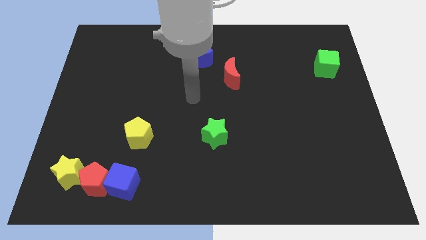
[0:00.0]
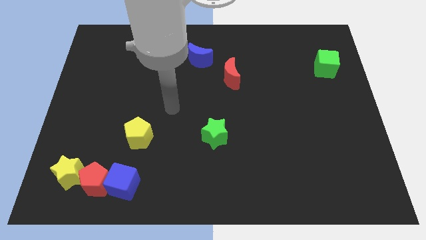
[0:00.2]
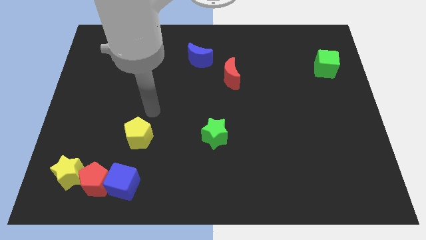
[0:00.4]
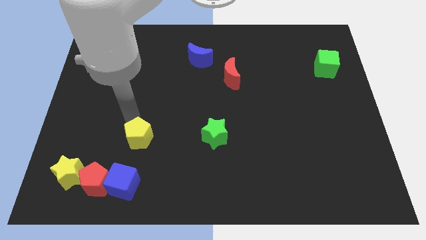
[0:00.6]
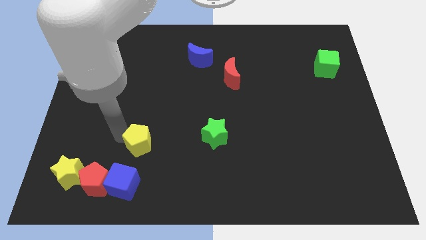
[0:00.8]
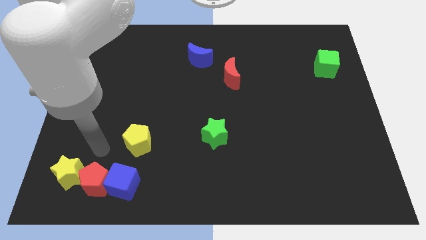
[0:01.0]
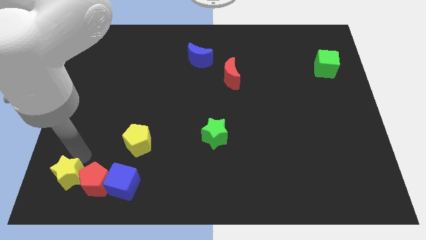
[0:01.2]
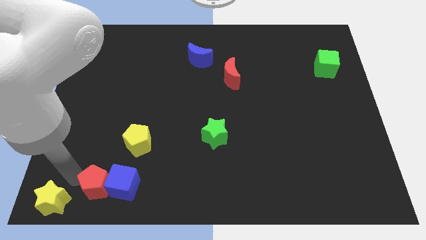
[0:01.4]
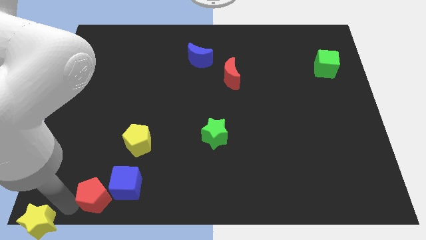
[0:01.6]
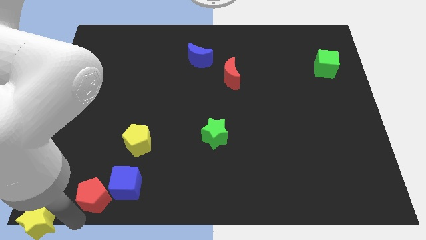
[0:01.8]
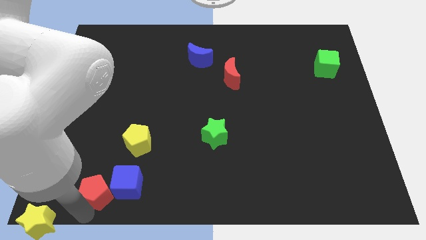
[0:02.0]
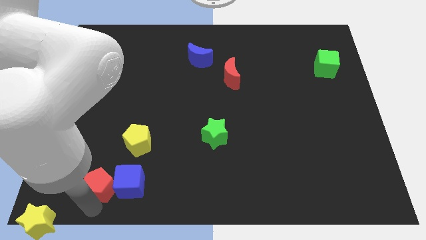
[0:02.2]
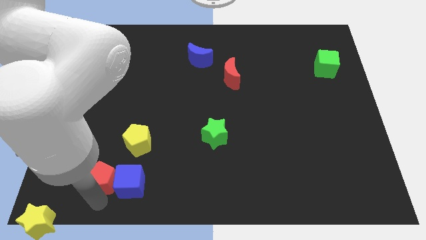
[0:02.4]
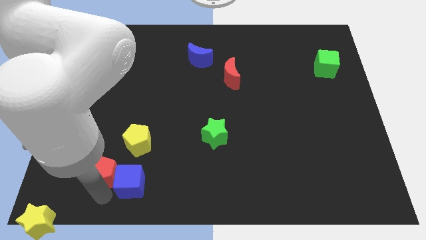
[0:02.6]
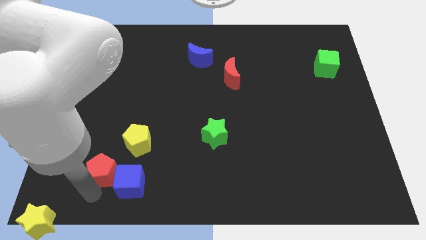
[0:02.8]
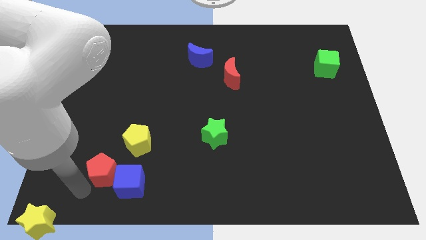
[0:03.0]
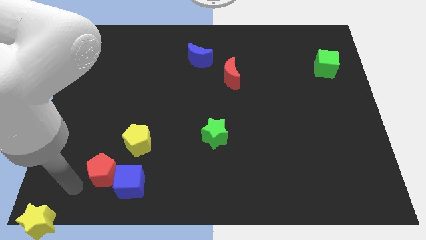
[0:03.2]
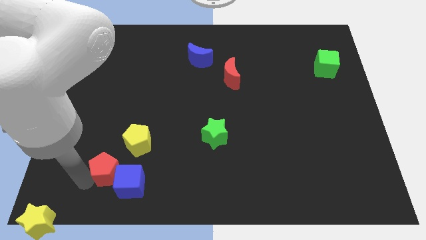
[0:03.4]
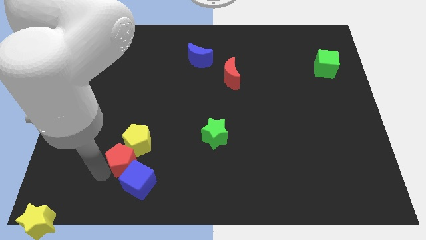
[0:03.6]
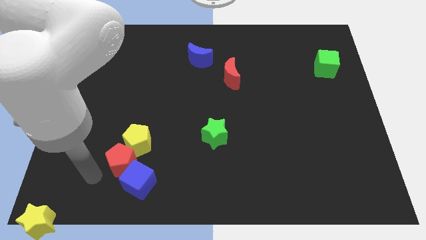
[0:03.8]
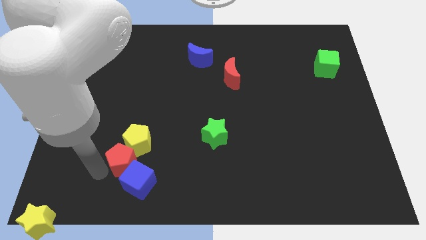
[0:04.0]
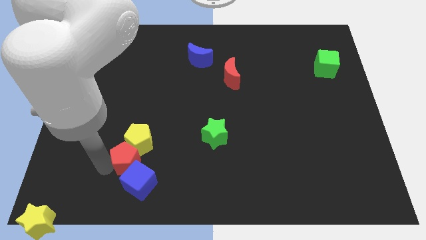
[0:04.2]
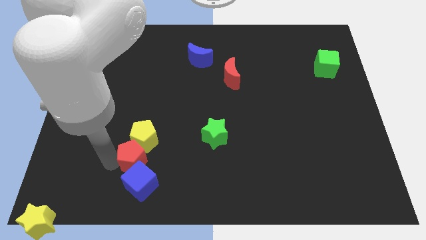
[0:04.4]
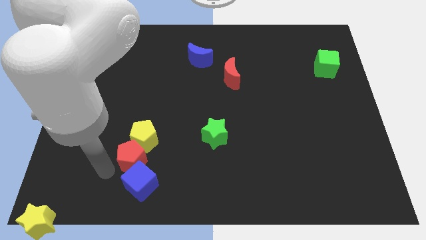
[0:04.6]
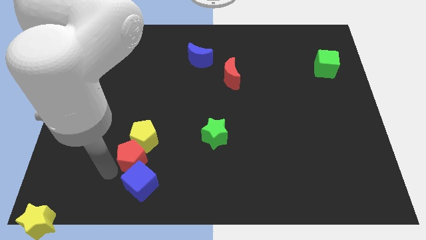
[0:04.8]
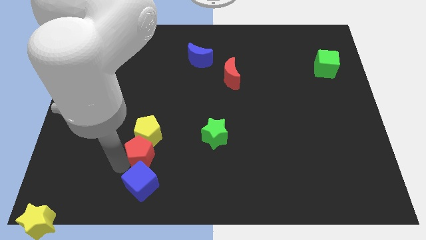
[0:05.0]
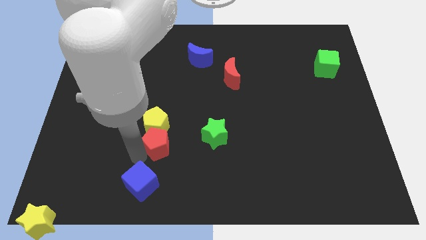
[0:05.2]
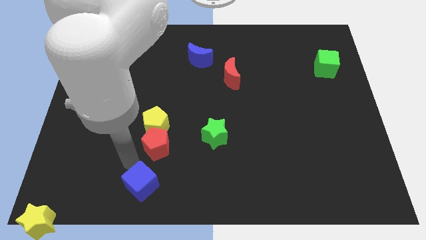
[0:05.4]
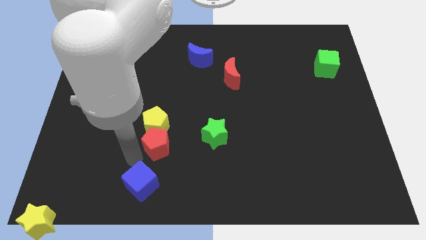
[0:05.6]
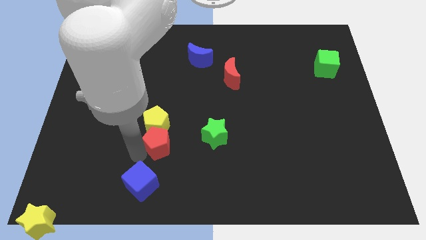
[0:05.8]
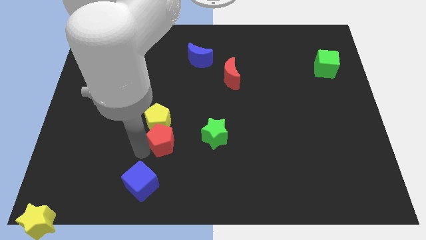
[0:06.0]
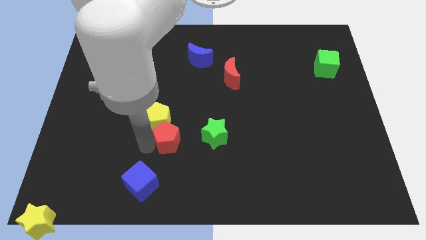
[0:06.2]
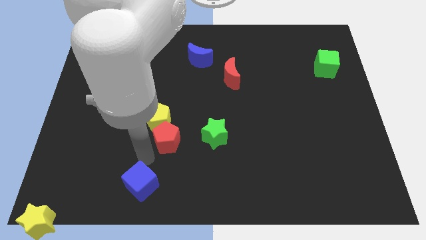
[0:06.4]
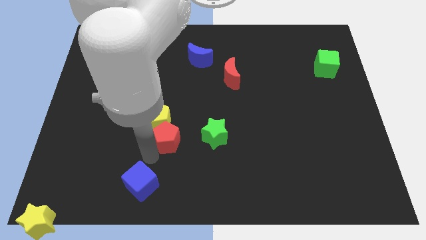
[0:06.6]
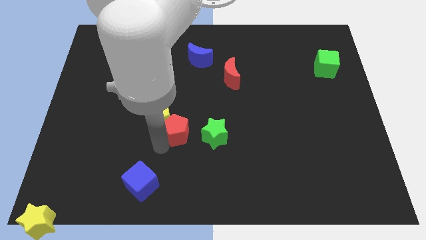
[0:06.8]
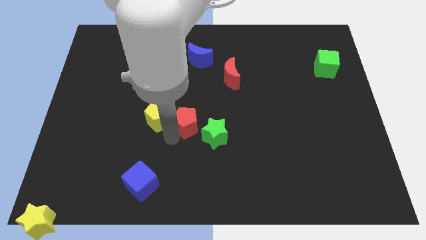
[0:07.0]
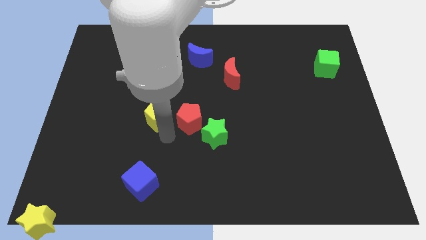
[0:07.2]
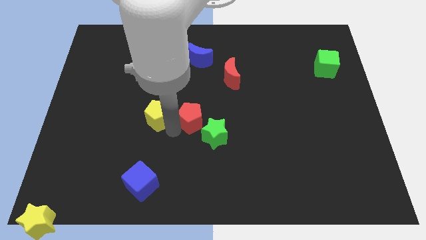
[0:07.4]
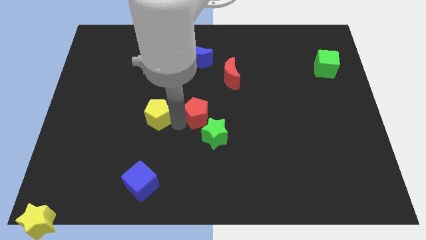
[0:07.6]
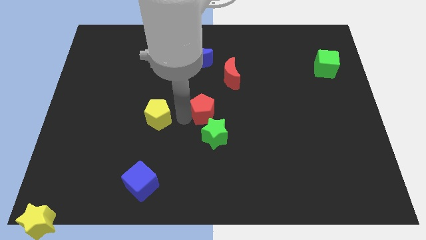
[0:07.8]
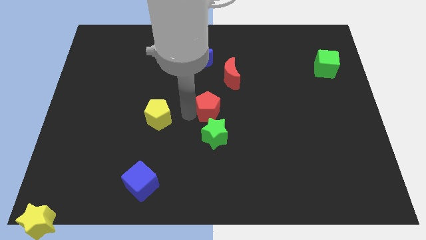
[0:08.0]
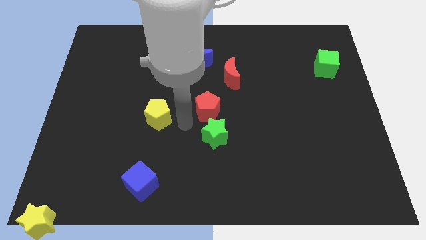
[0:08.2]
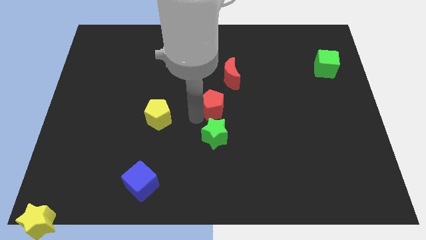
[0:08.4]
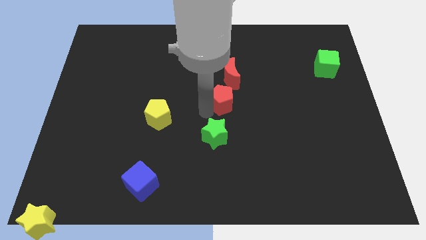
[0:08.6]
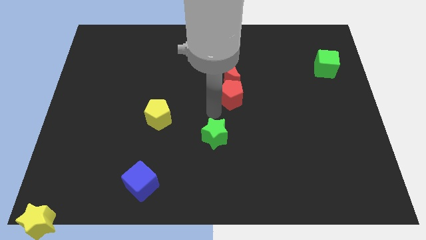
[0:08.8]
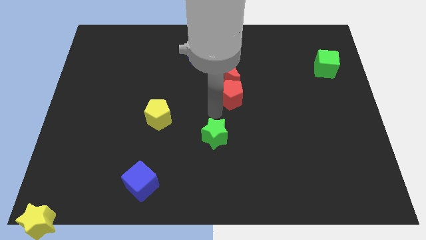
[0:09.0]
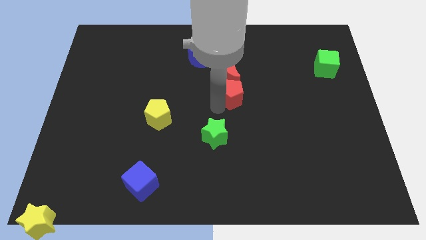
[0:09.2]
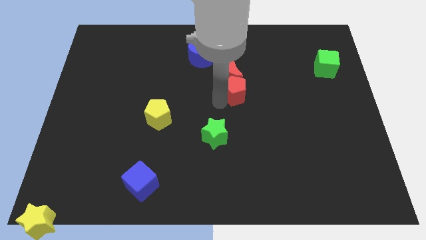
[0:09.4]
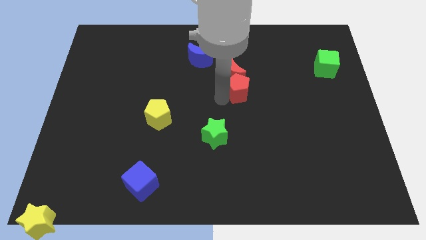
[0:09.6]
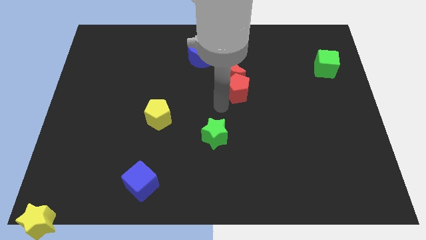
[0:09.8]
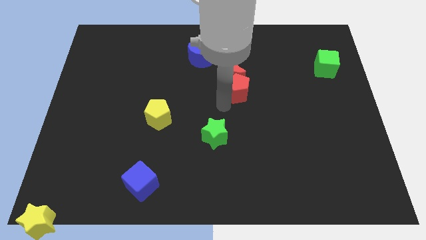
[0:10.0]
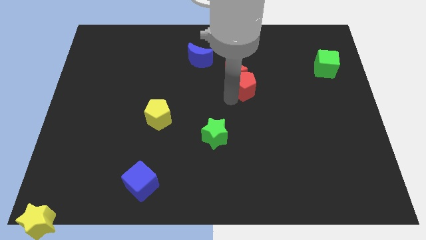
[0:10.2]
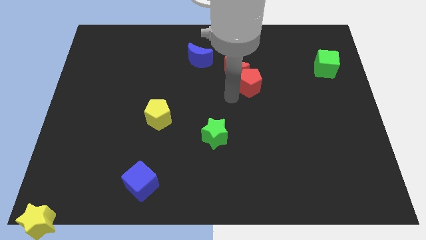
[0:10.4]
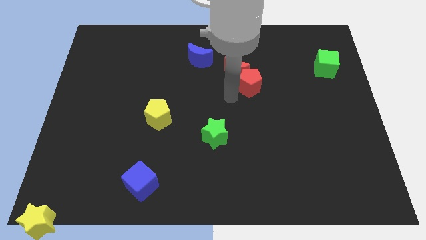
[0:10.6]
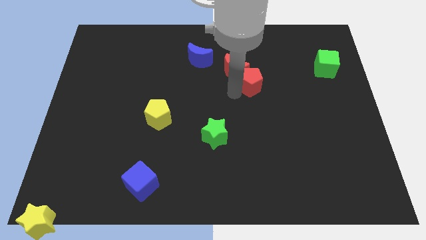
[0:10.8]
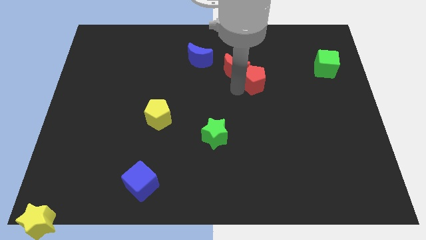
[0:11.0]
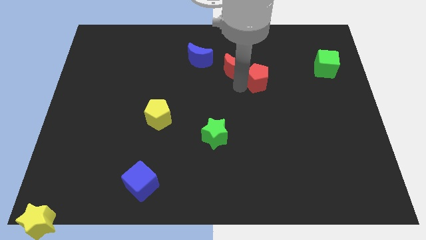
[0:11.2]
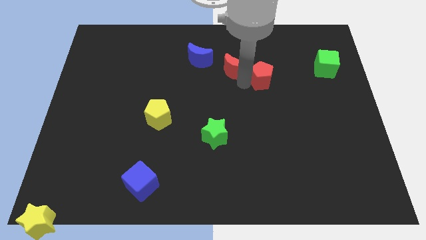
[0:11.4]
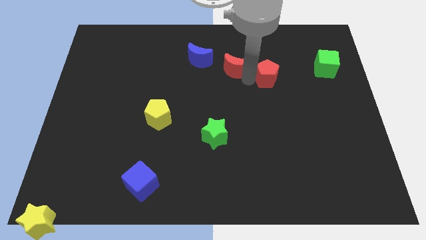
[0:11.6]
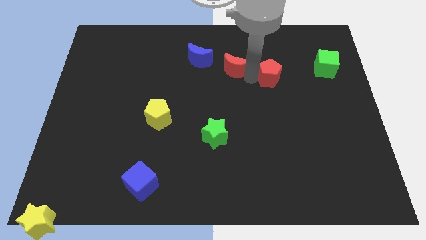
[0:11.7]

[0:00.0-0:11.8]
push the red pentagon just left of the green cube

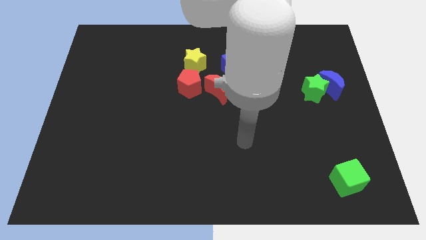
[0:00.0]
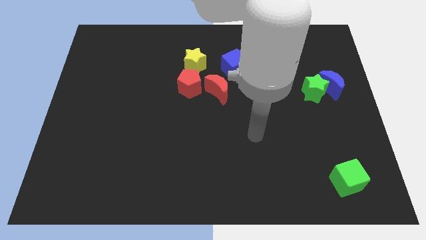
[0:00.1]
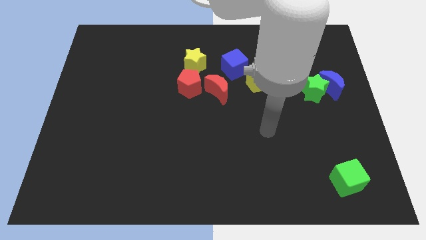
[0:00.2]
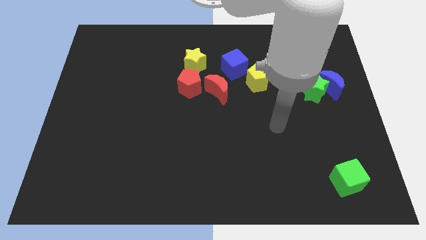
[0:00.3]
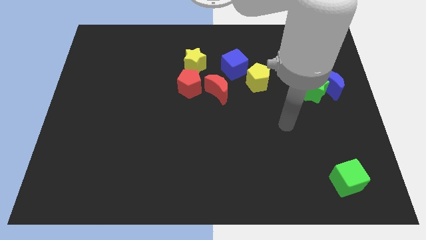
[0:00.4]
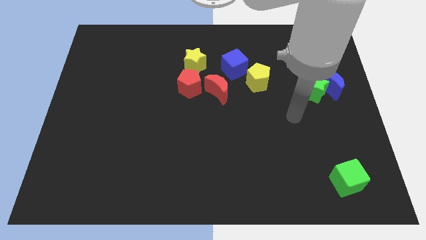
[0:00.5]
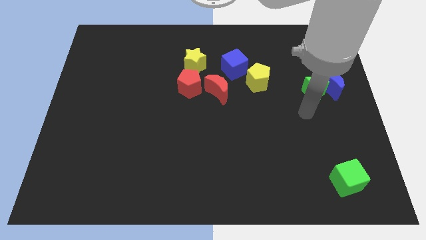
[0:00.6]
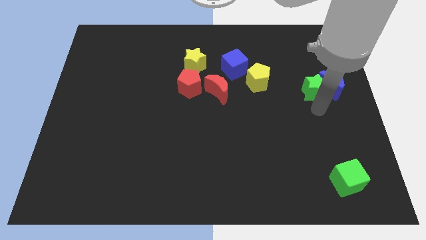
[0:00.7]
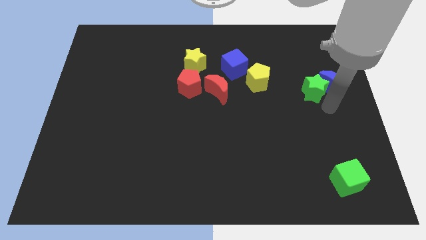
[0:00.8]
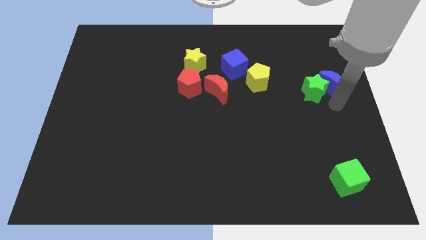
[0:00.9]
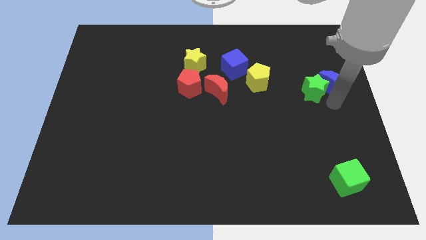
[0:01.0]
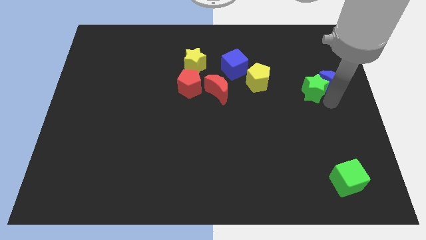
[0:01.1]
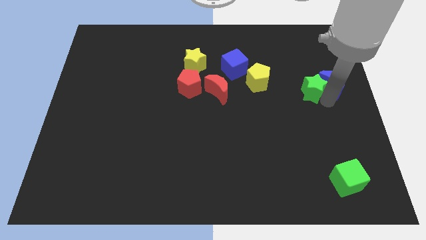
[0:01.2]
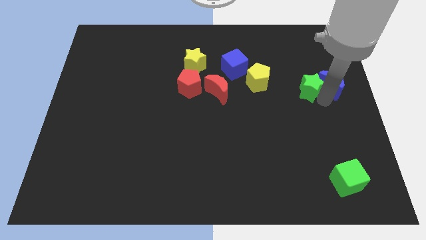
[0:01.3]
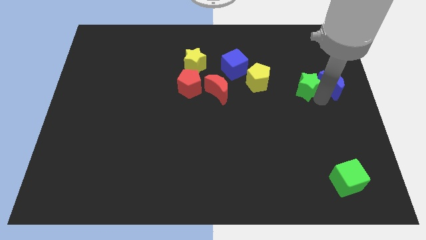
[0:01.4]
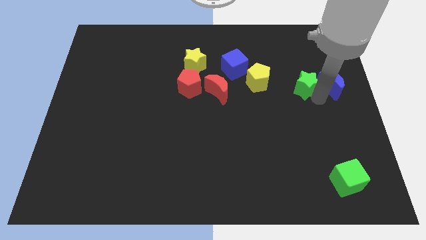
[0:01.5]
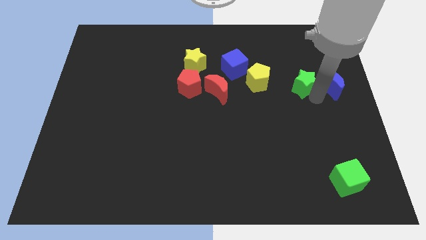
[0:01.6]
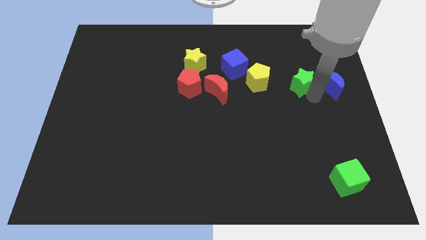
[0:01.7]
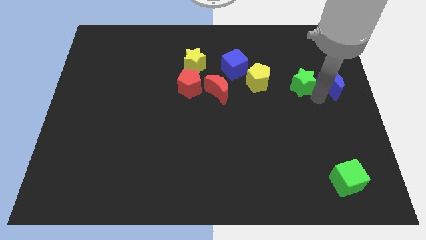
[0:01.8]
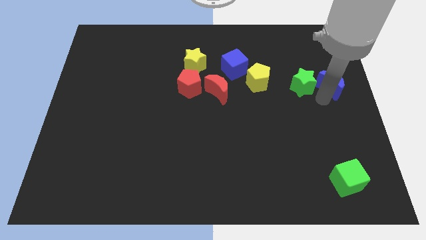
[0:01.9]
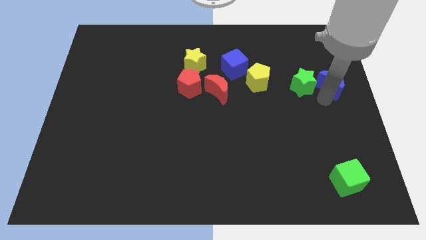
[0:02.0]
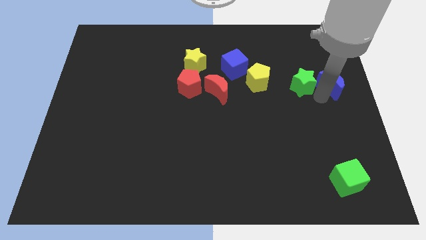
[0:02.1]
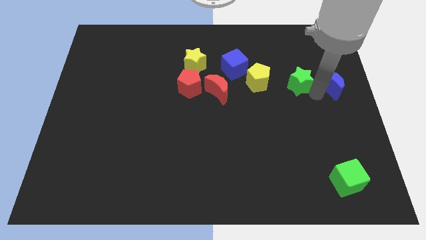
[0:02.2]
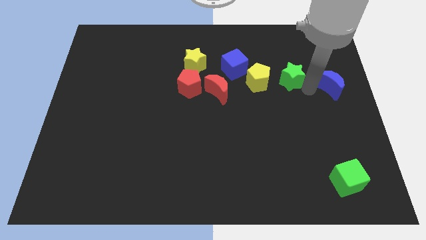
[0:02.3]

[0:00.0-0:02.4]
push the green star to the right side of the blue cube
